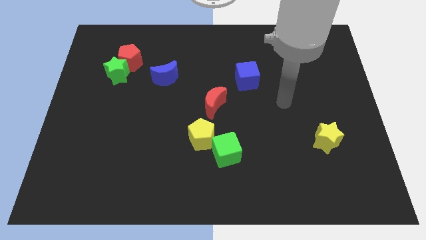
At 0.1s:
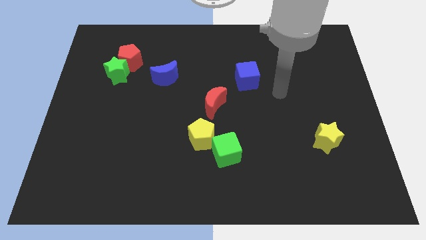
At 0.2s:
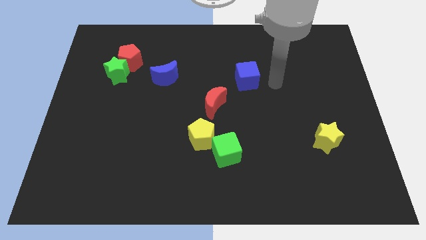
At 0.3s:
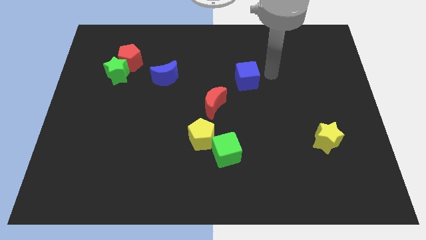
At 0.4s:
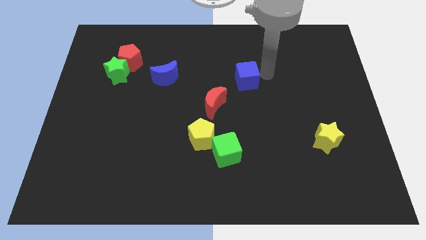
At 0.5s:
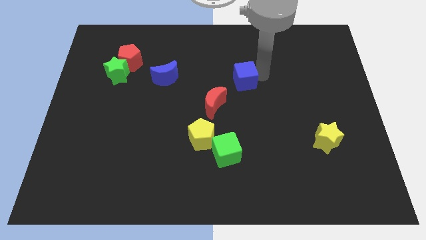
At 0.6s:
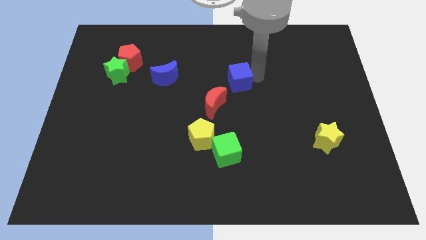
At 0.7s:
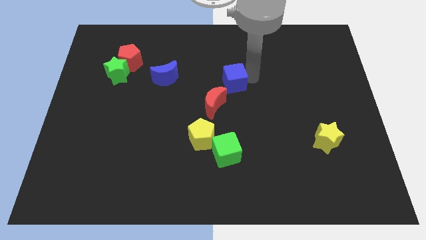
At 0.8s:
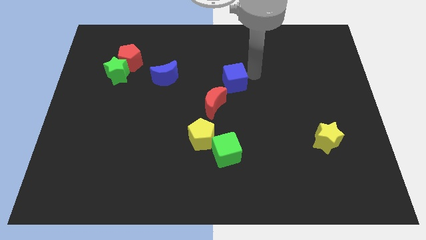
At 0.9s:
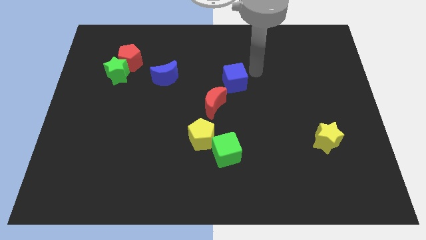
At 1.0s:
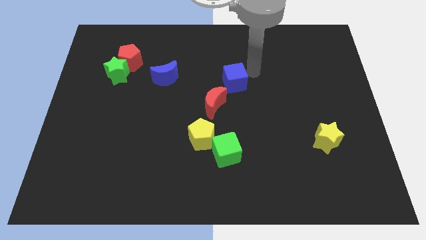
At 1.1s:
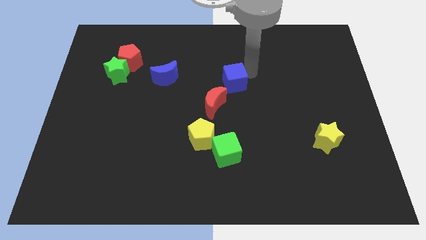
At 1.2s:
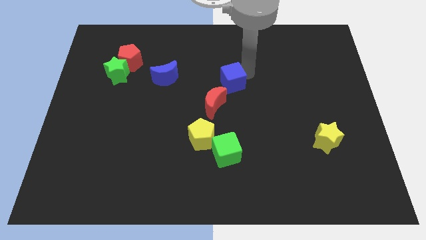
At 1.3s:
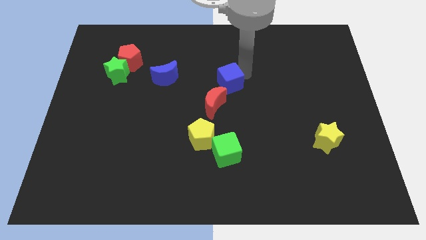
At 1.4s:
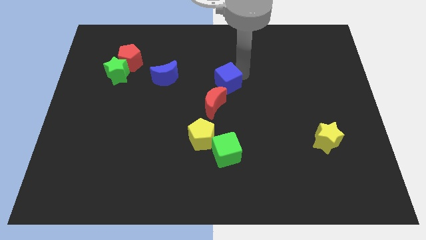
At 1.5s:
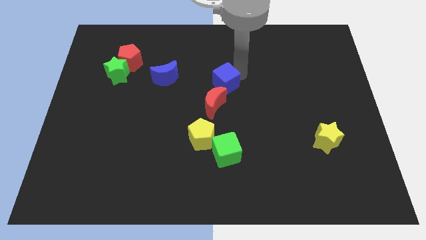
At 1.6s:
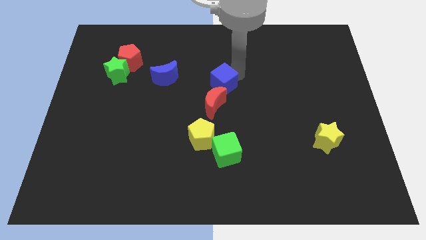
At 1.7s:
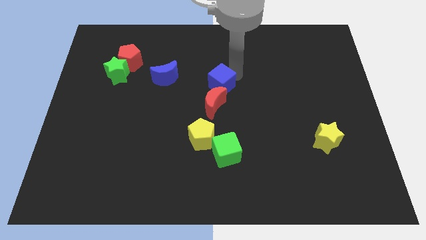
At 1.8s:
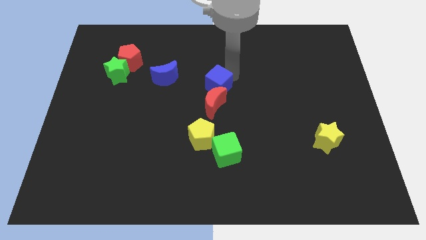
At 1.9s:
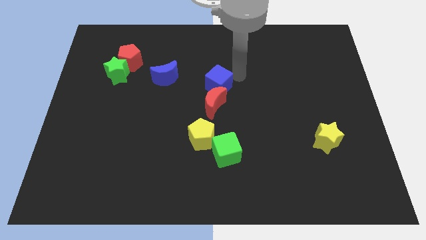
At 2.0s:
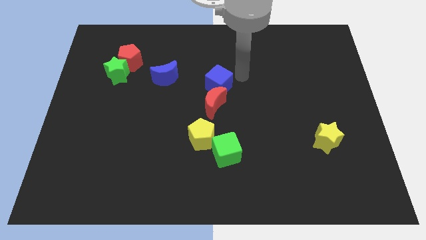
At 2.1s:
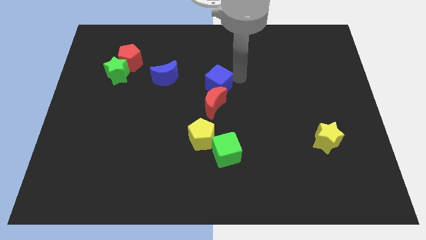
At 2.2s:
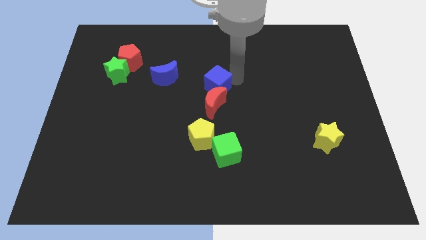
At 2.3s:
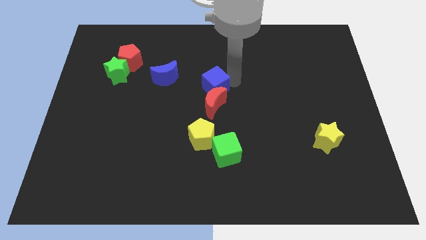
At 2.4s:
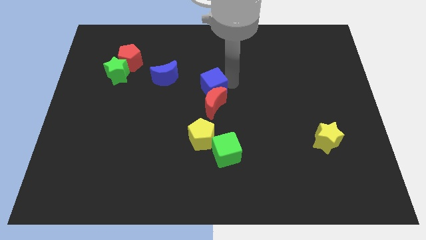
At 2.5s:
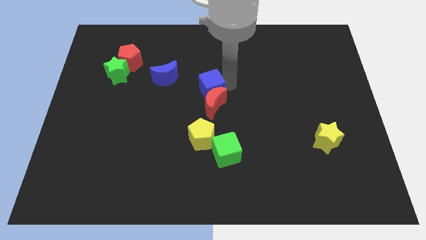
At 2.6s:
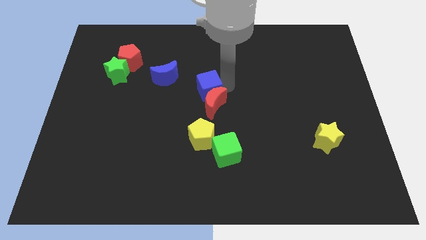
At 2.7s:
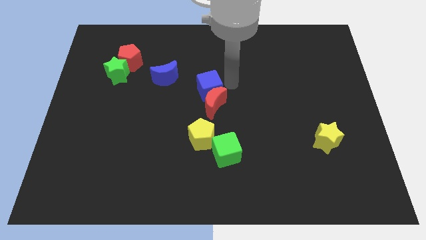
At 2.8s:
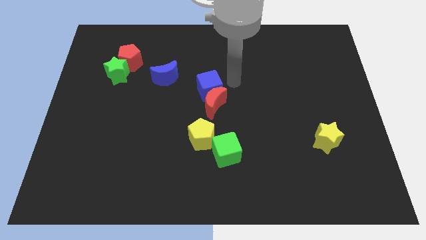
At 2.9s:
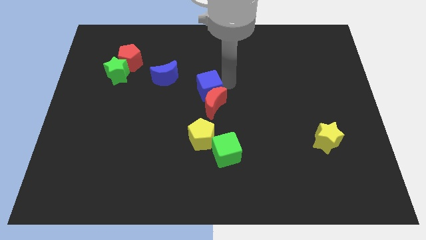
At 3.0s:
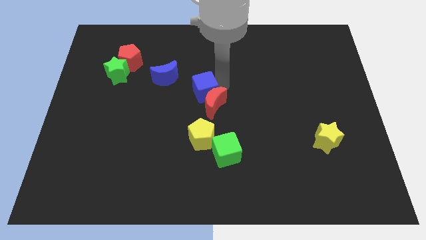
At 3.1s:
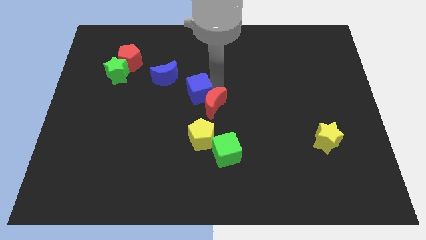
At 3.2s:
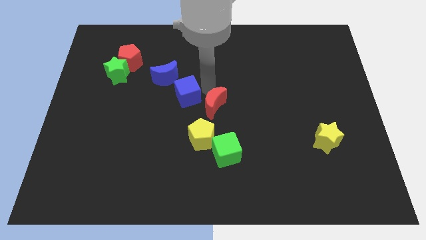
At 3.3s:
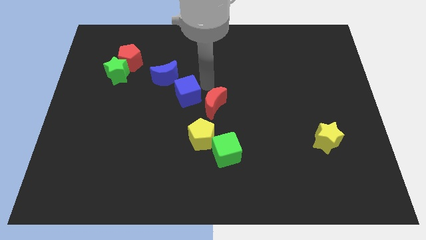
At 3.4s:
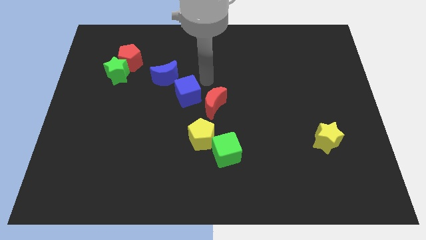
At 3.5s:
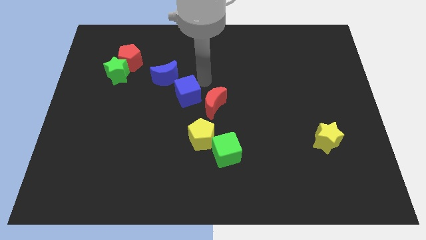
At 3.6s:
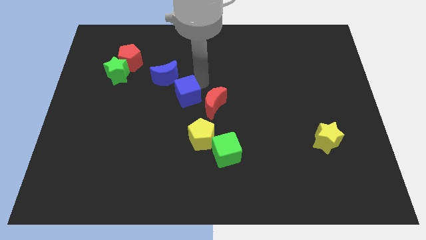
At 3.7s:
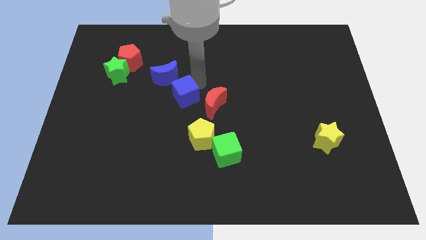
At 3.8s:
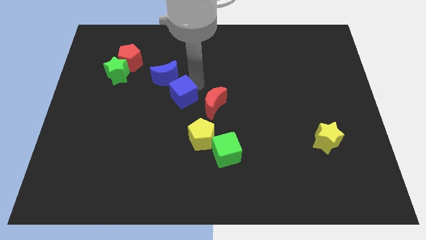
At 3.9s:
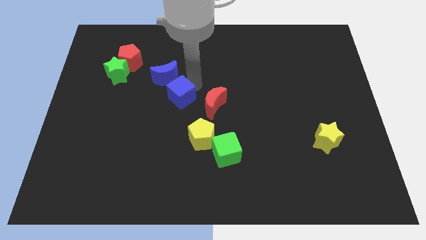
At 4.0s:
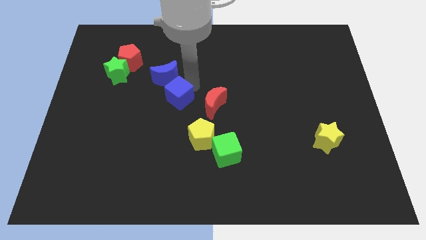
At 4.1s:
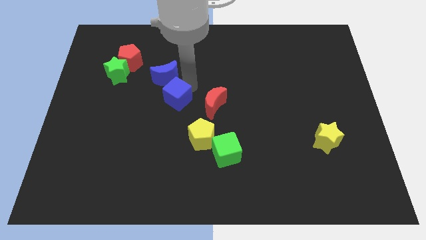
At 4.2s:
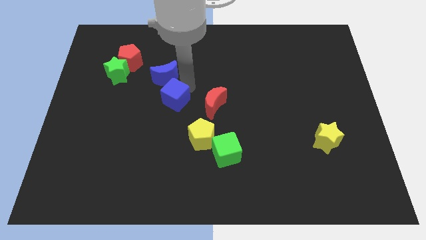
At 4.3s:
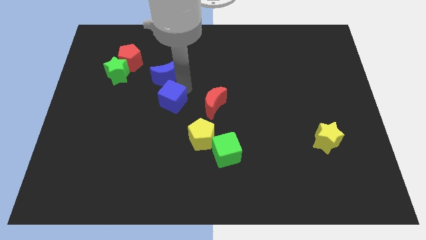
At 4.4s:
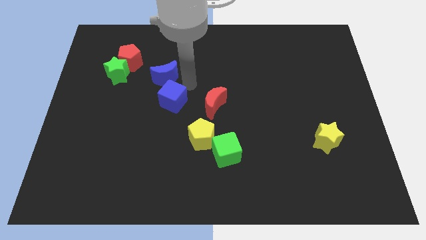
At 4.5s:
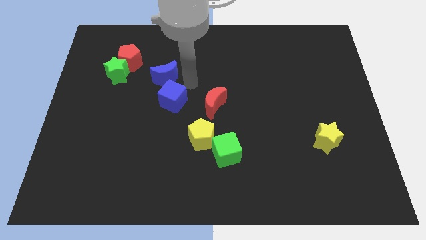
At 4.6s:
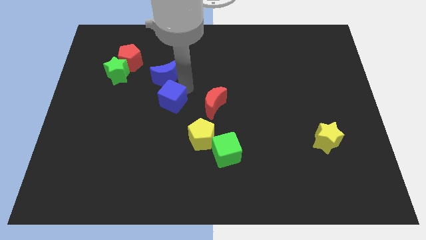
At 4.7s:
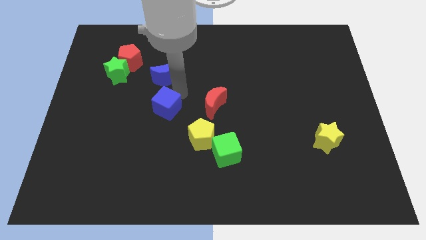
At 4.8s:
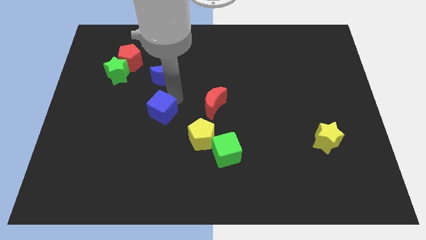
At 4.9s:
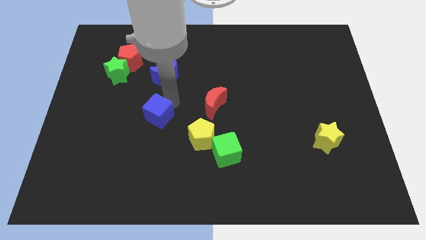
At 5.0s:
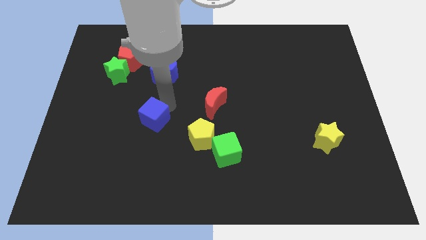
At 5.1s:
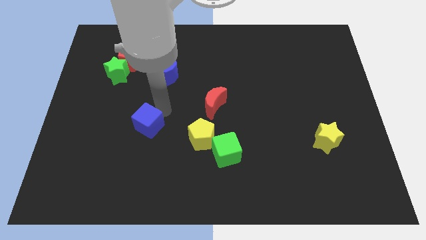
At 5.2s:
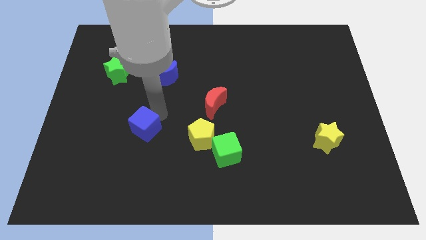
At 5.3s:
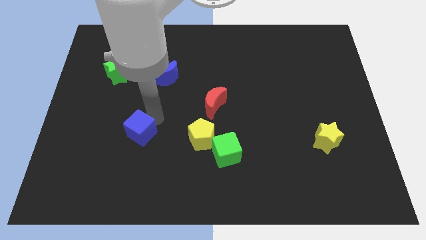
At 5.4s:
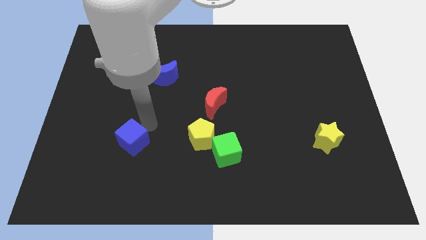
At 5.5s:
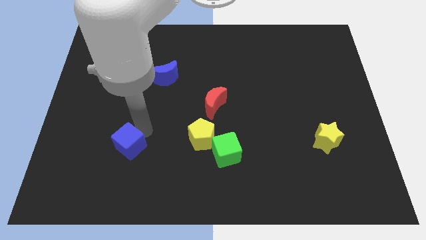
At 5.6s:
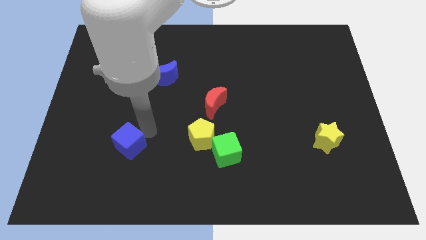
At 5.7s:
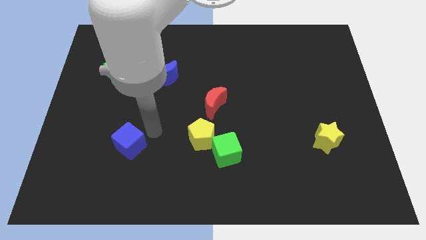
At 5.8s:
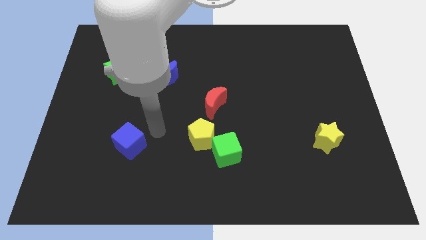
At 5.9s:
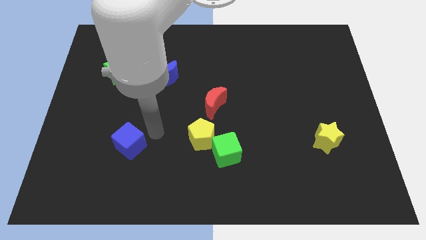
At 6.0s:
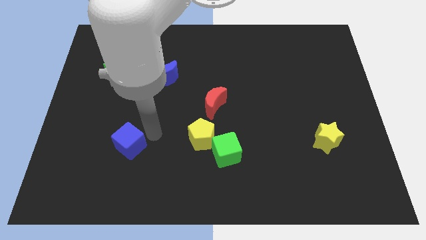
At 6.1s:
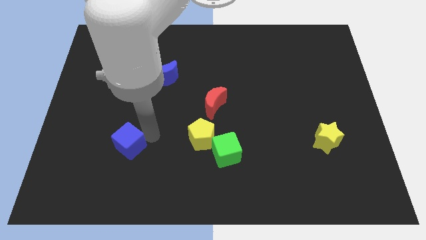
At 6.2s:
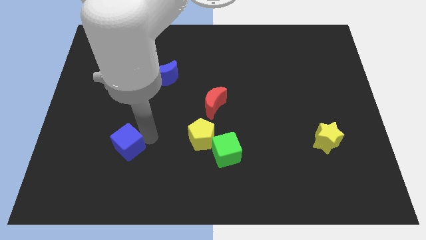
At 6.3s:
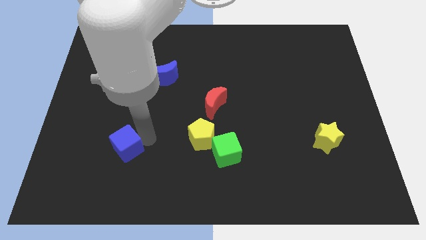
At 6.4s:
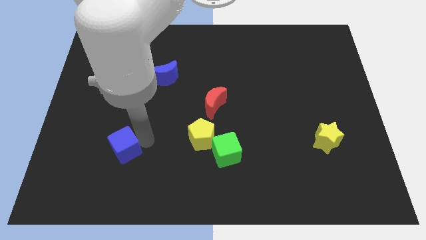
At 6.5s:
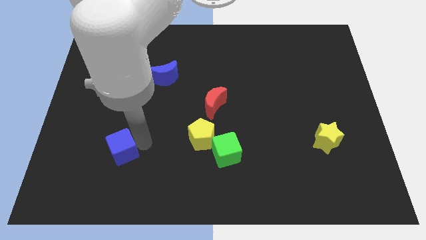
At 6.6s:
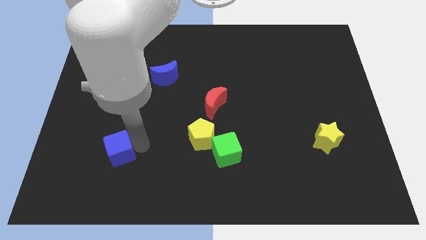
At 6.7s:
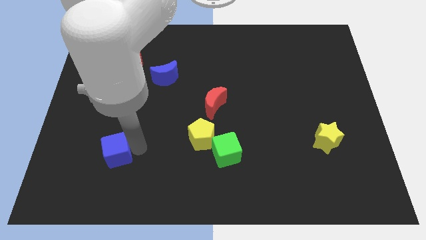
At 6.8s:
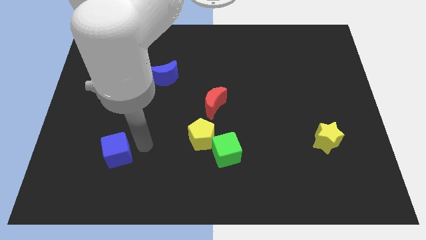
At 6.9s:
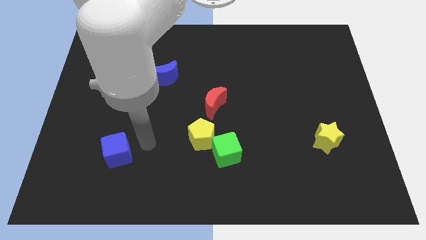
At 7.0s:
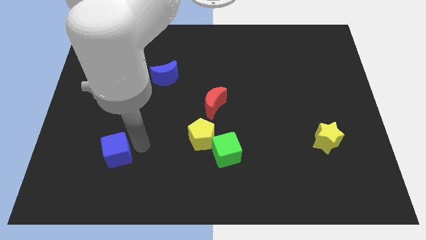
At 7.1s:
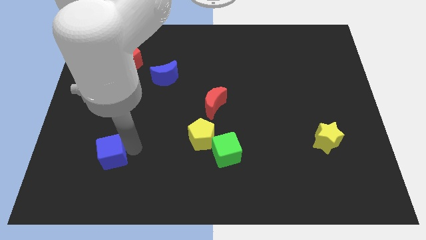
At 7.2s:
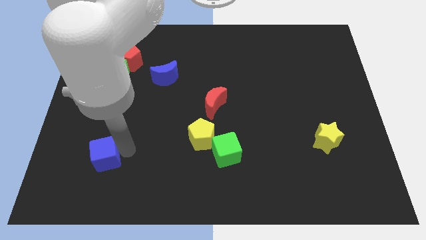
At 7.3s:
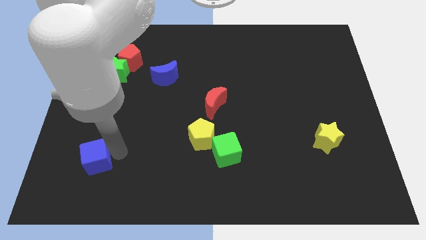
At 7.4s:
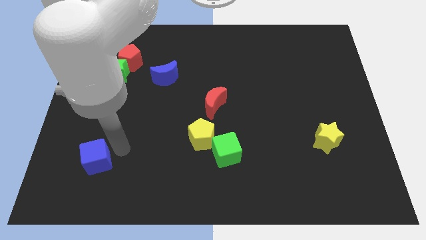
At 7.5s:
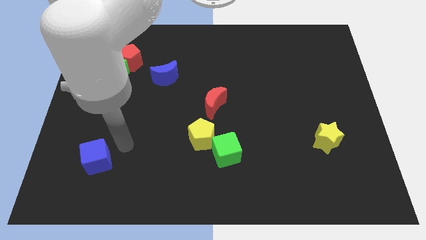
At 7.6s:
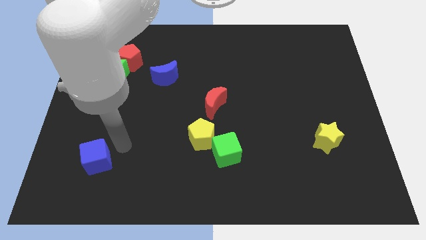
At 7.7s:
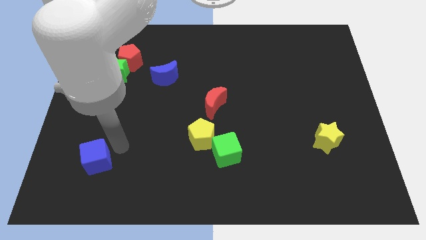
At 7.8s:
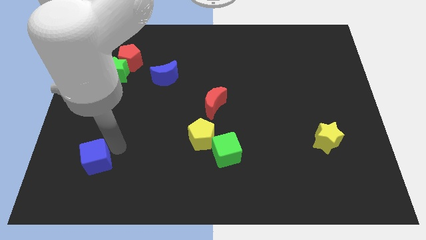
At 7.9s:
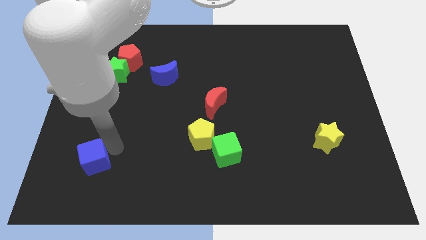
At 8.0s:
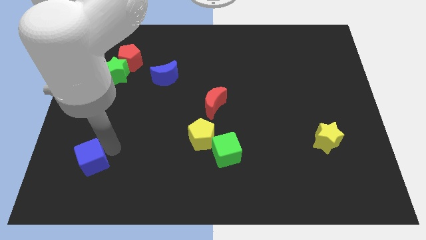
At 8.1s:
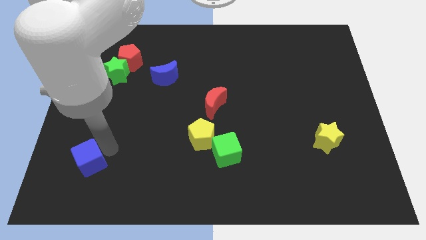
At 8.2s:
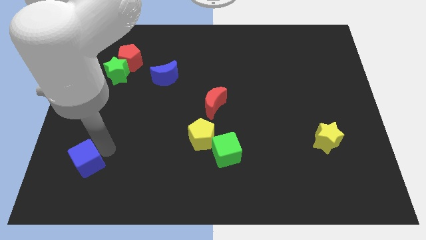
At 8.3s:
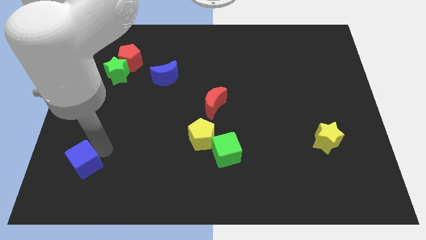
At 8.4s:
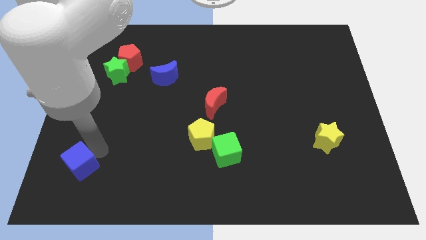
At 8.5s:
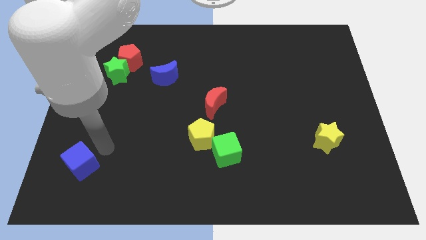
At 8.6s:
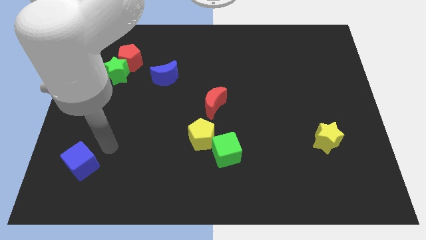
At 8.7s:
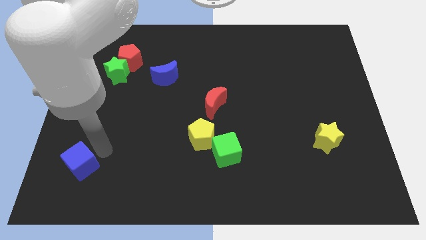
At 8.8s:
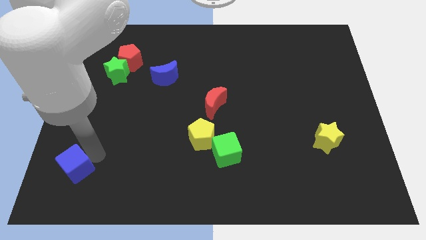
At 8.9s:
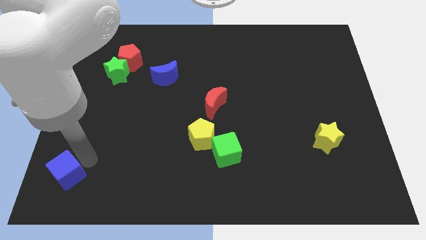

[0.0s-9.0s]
push the blue cube to the bottom left of the board
